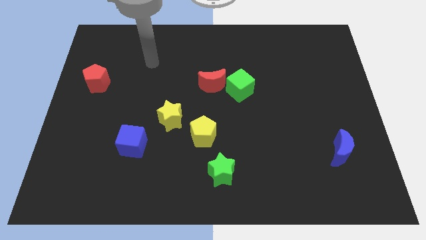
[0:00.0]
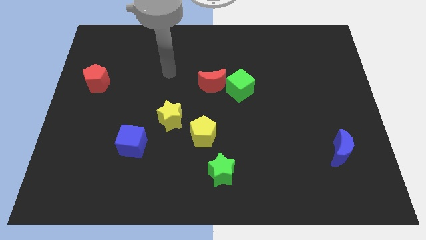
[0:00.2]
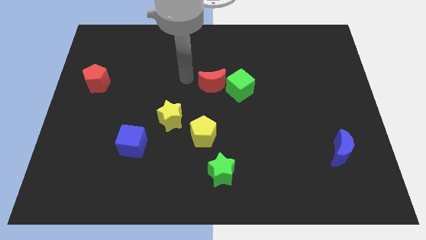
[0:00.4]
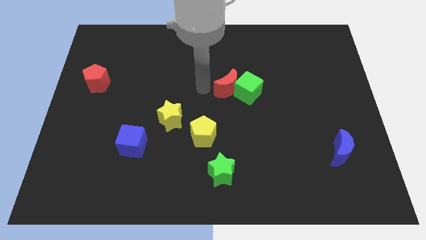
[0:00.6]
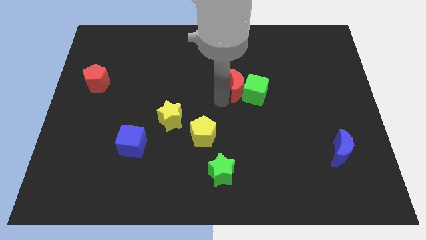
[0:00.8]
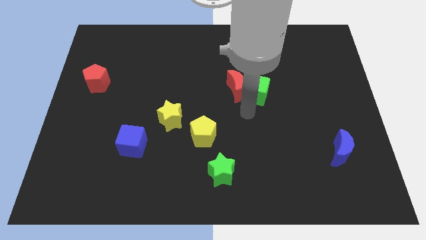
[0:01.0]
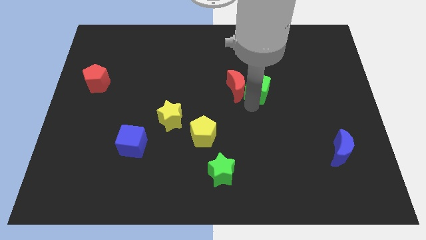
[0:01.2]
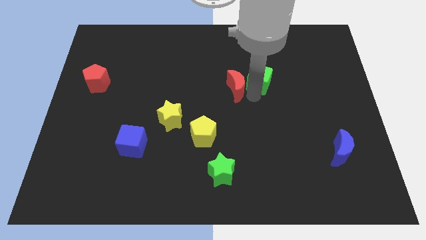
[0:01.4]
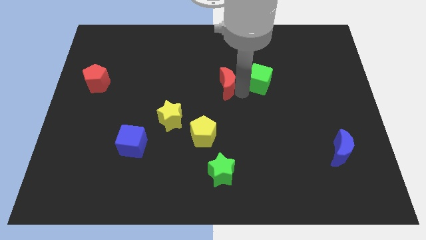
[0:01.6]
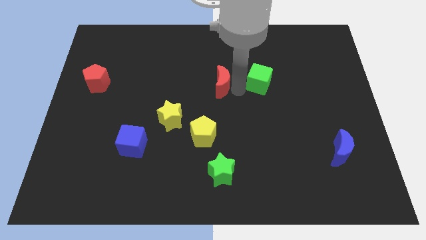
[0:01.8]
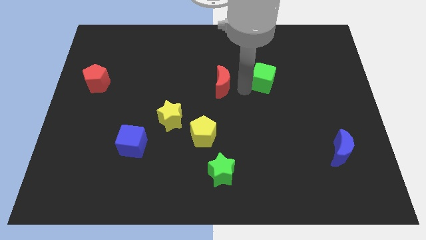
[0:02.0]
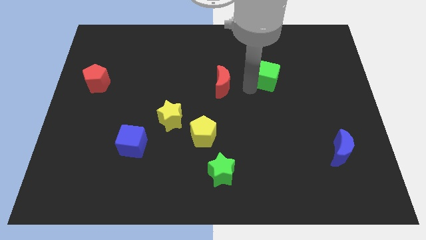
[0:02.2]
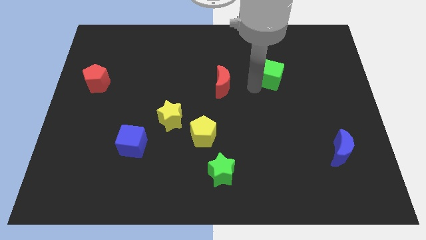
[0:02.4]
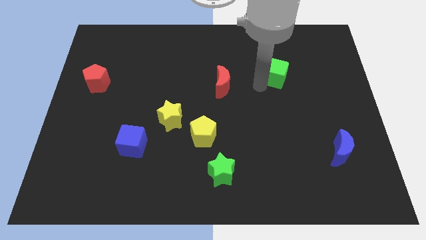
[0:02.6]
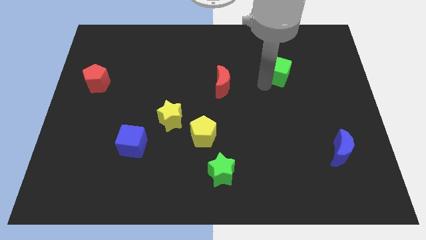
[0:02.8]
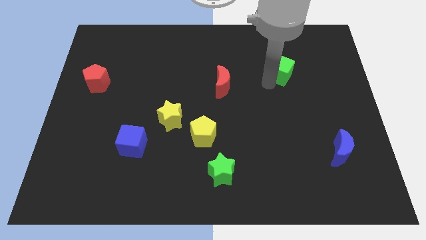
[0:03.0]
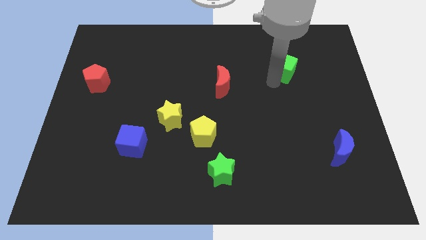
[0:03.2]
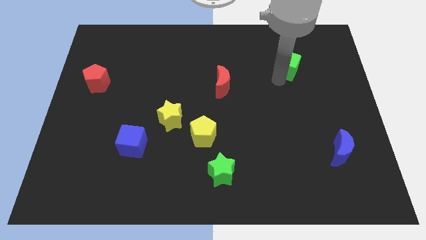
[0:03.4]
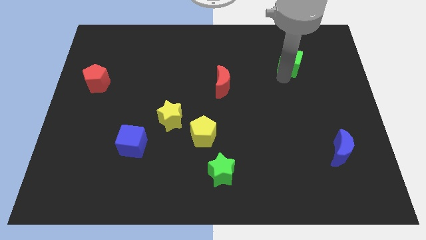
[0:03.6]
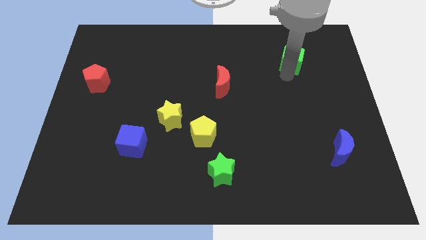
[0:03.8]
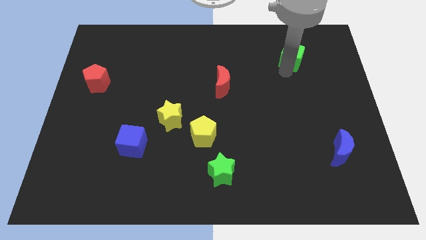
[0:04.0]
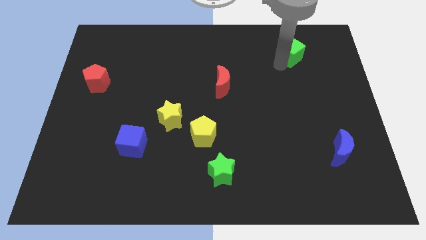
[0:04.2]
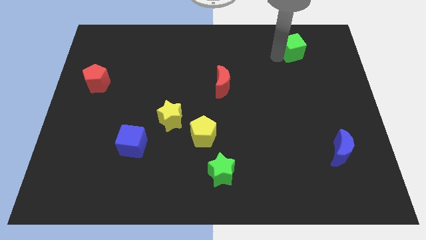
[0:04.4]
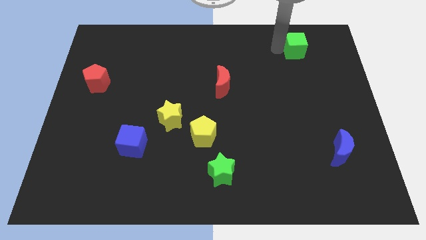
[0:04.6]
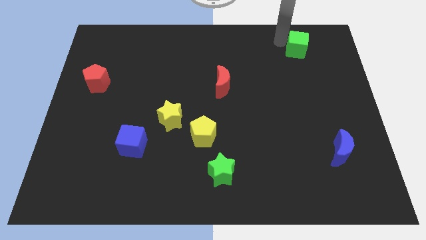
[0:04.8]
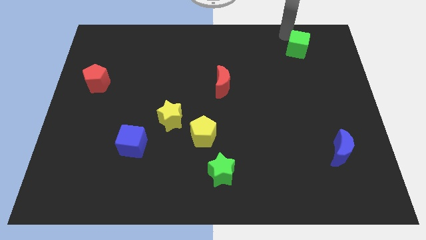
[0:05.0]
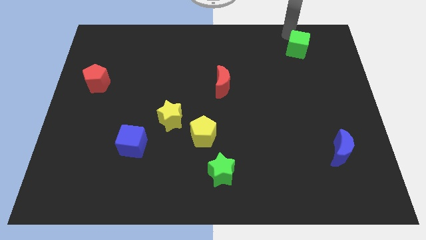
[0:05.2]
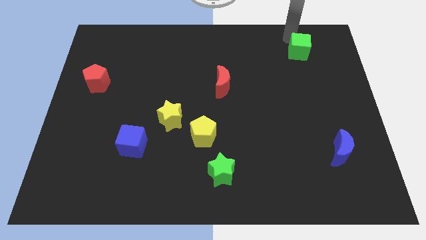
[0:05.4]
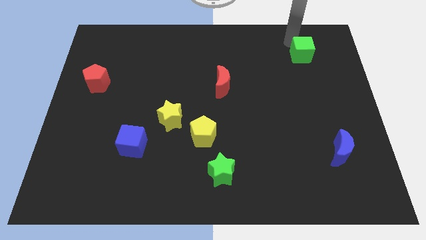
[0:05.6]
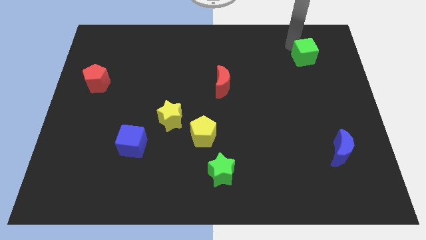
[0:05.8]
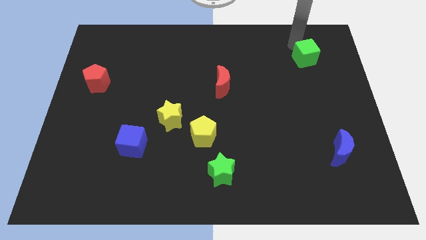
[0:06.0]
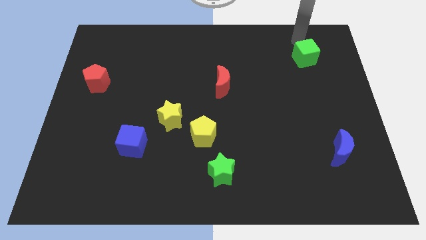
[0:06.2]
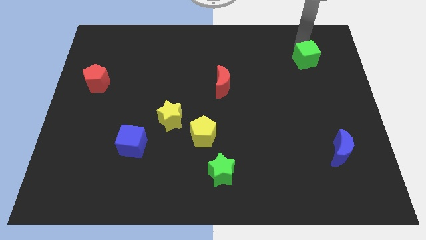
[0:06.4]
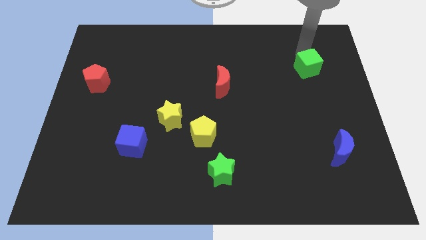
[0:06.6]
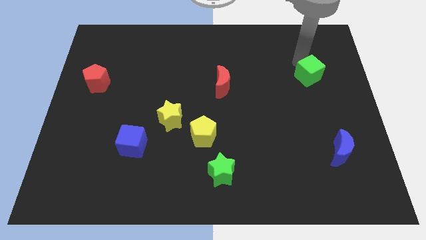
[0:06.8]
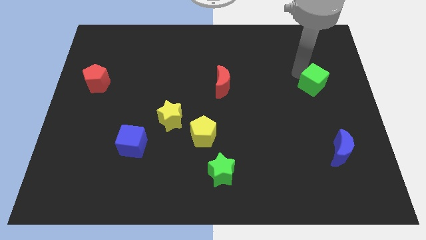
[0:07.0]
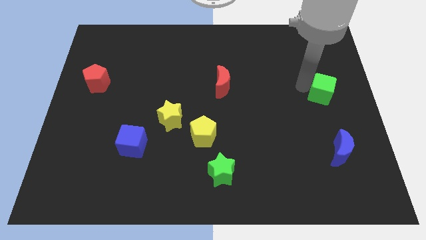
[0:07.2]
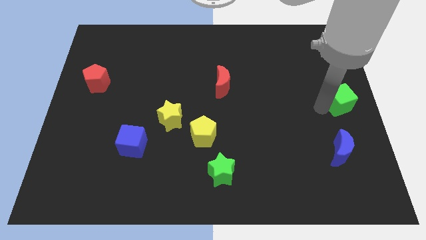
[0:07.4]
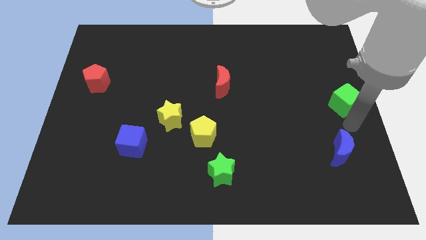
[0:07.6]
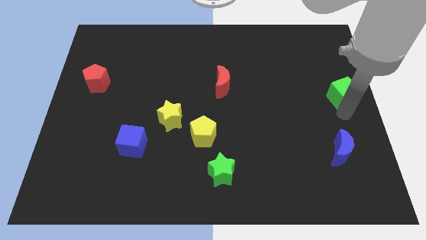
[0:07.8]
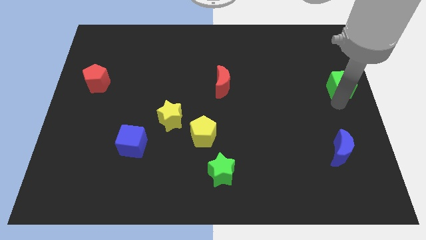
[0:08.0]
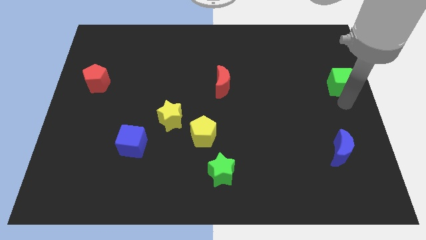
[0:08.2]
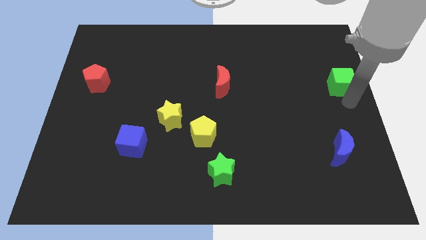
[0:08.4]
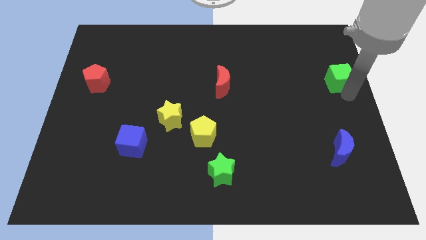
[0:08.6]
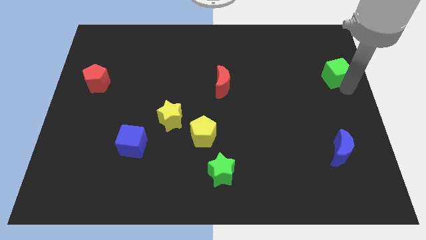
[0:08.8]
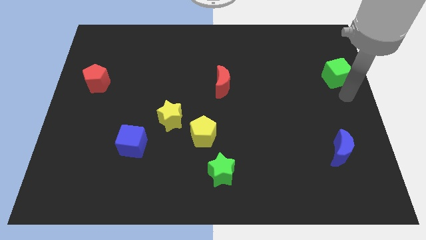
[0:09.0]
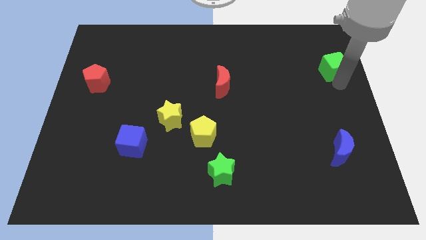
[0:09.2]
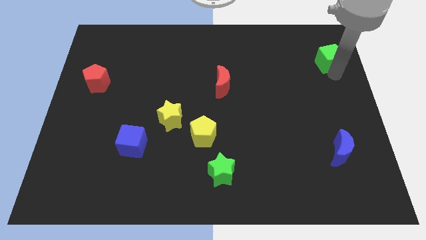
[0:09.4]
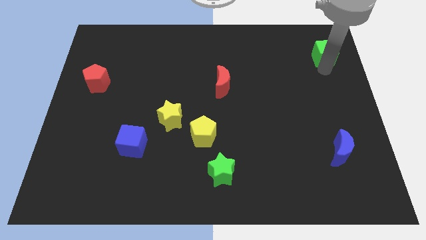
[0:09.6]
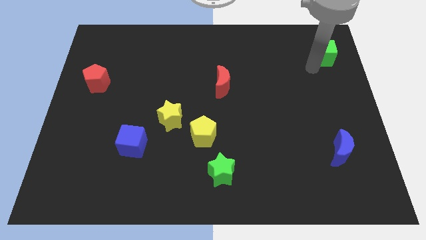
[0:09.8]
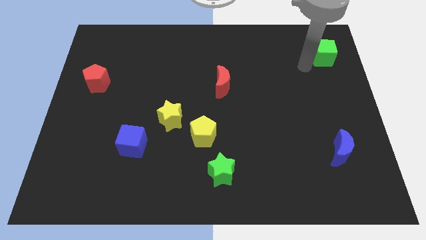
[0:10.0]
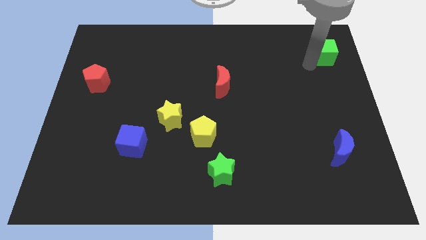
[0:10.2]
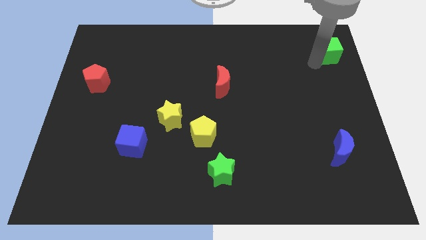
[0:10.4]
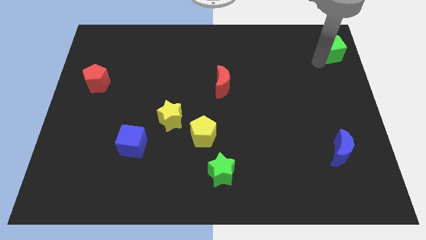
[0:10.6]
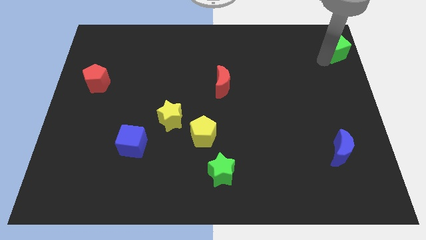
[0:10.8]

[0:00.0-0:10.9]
push the green cube to the top right

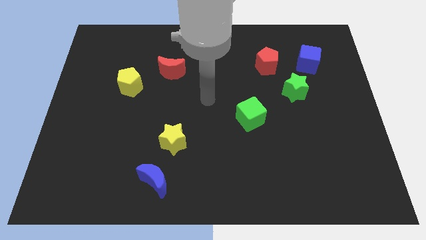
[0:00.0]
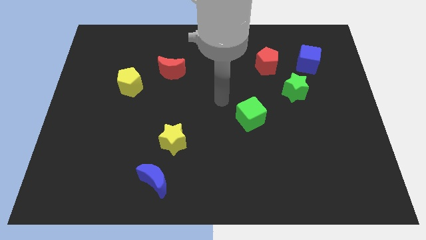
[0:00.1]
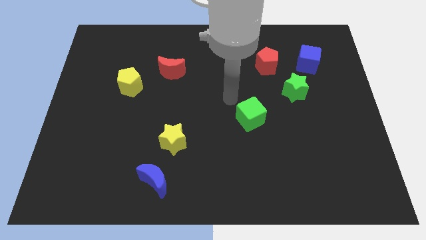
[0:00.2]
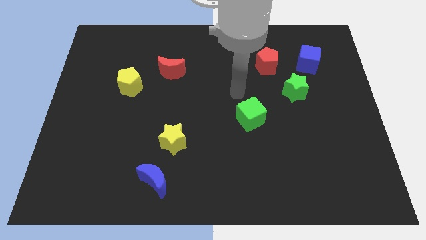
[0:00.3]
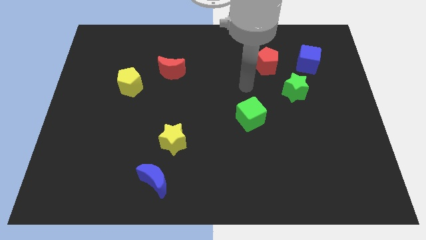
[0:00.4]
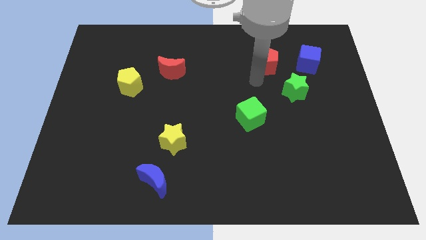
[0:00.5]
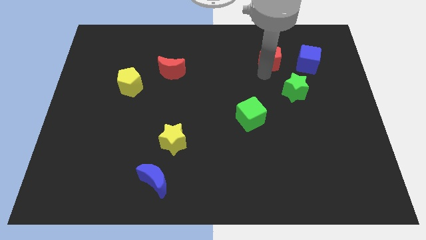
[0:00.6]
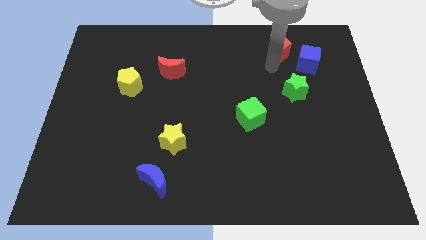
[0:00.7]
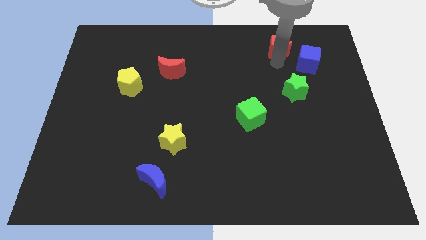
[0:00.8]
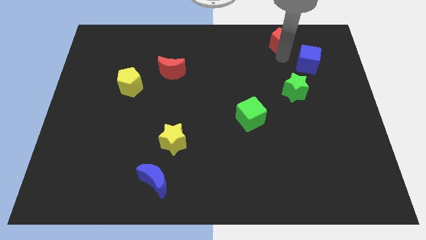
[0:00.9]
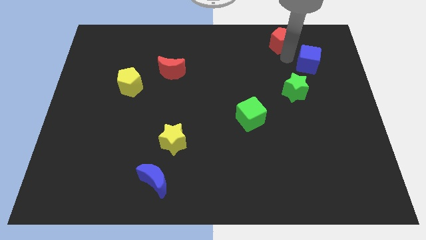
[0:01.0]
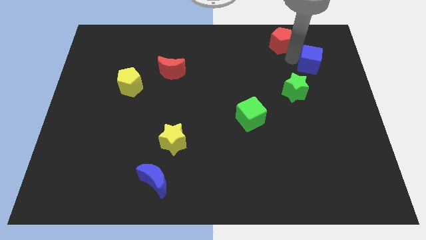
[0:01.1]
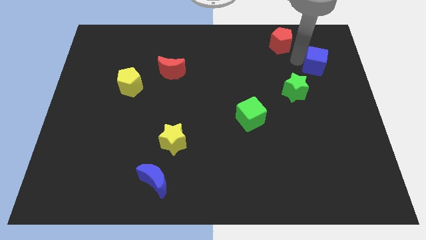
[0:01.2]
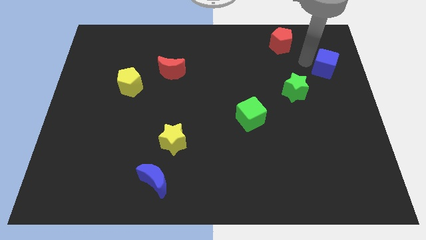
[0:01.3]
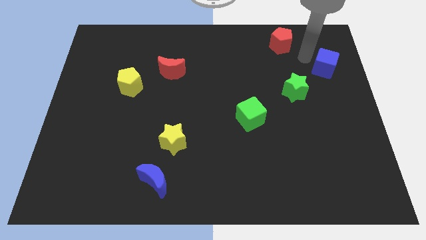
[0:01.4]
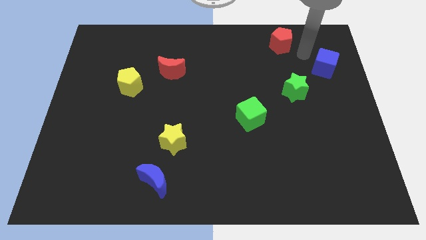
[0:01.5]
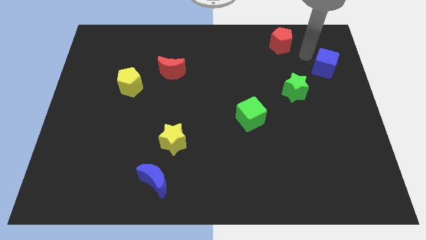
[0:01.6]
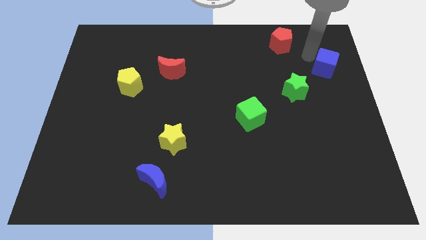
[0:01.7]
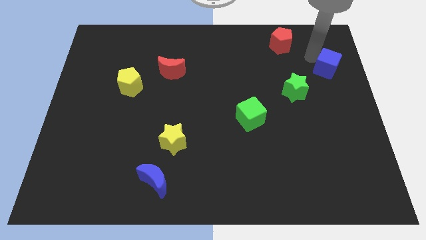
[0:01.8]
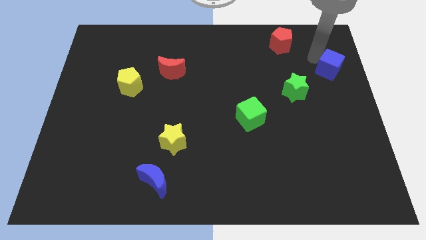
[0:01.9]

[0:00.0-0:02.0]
move the blue cube to the right side of the board

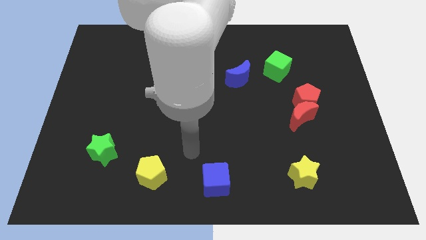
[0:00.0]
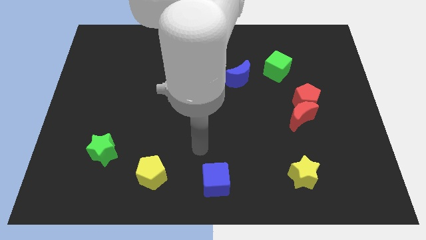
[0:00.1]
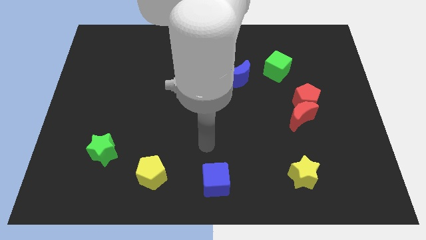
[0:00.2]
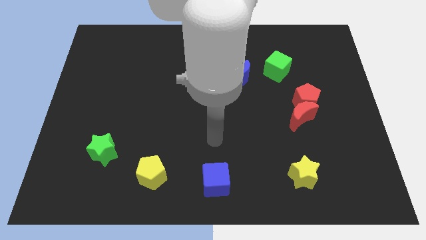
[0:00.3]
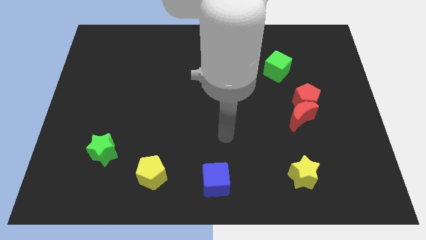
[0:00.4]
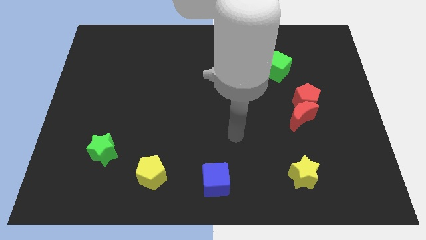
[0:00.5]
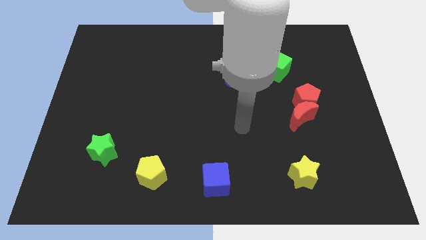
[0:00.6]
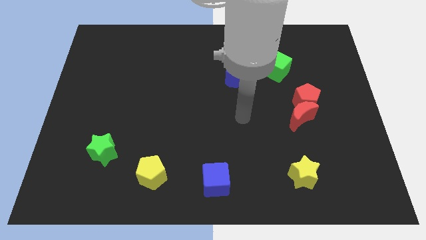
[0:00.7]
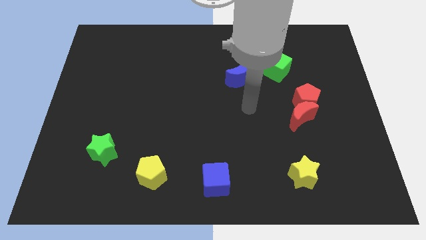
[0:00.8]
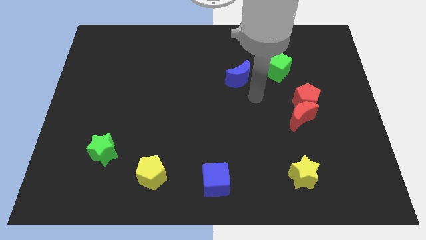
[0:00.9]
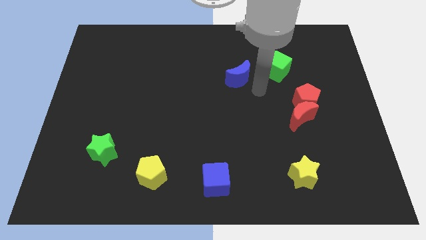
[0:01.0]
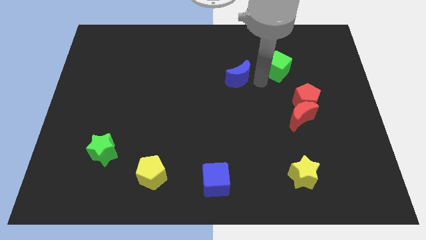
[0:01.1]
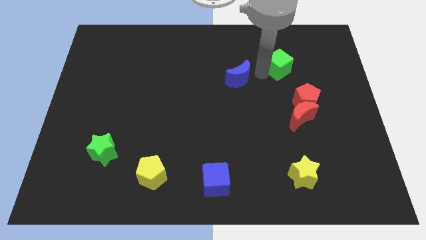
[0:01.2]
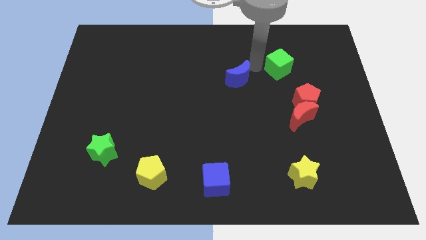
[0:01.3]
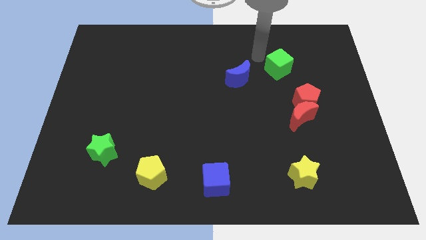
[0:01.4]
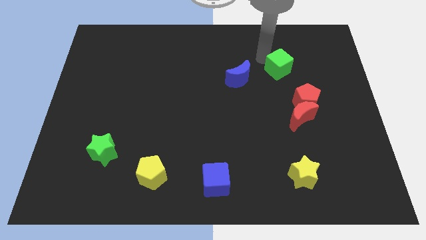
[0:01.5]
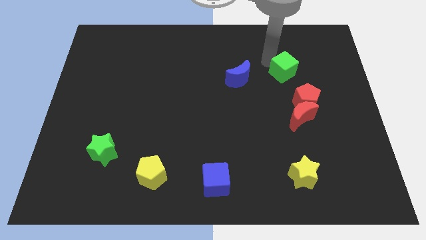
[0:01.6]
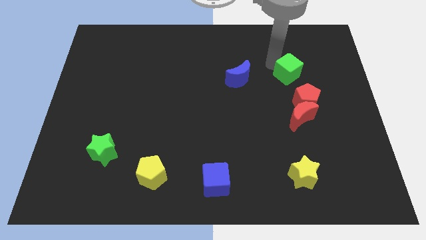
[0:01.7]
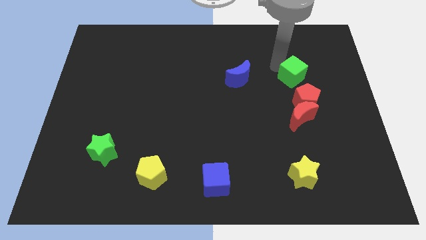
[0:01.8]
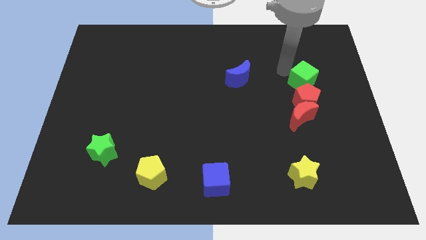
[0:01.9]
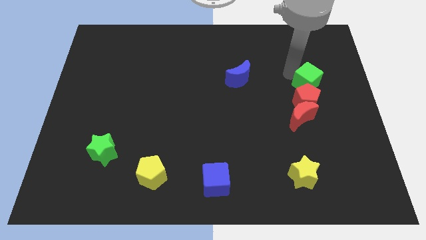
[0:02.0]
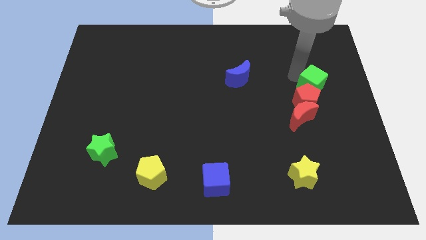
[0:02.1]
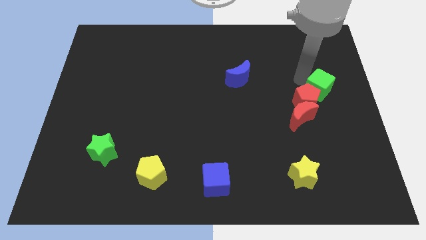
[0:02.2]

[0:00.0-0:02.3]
push the green cube to the right side
